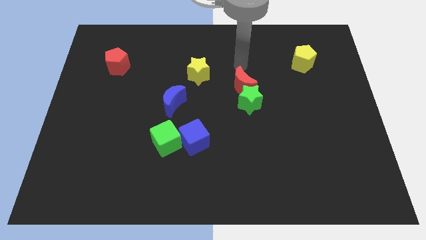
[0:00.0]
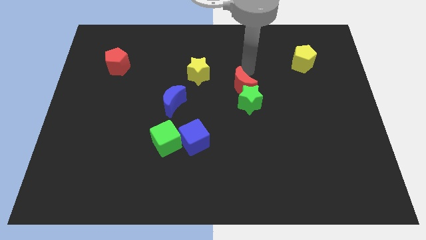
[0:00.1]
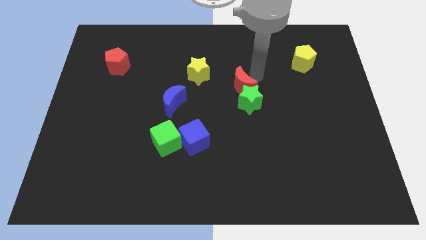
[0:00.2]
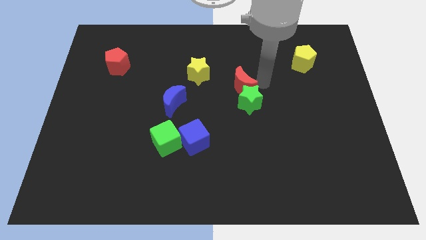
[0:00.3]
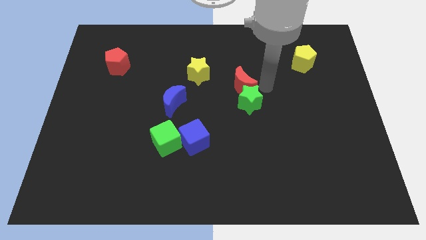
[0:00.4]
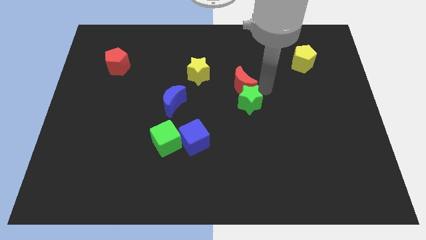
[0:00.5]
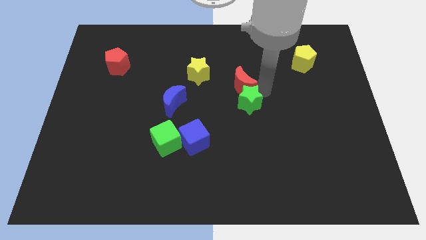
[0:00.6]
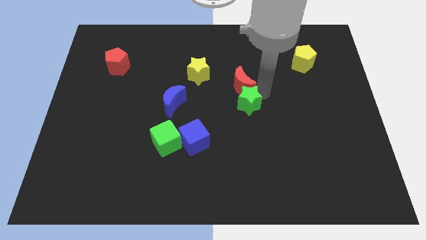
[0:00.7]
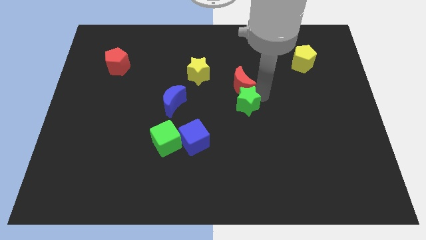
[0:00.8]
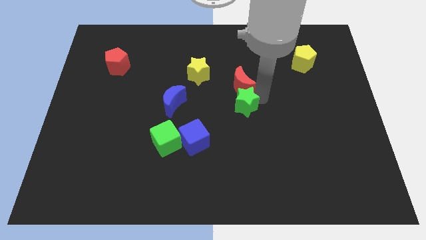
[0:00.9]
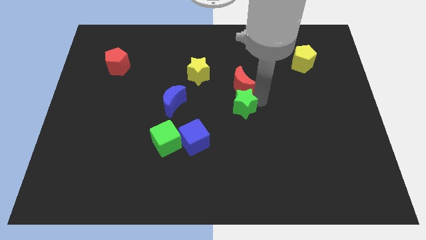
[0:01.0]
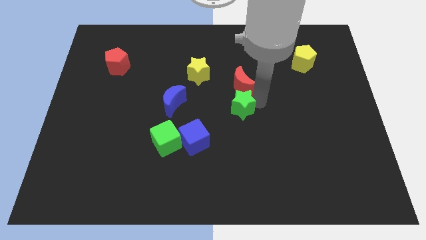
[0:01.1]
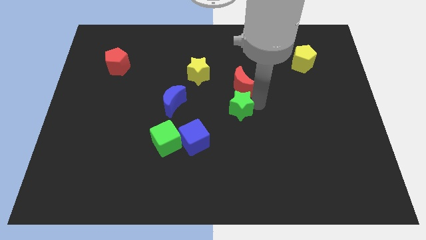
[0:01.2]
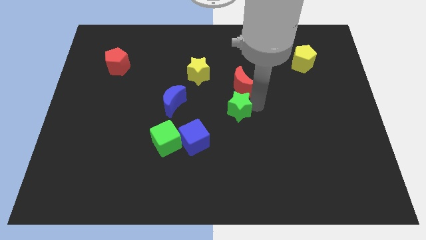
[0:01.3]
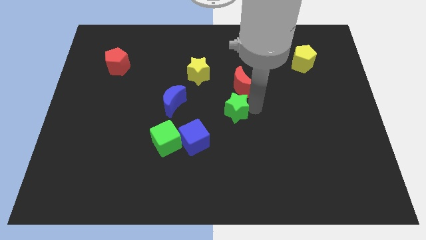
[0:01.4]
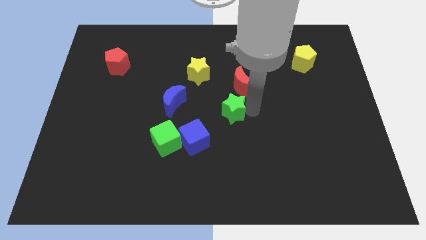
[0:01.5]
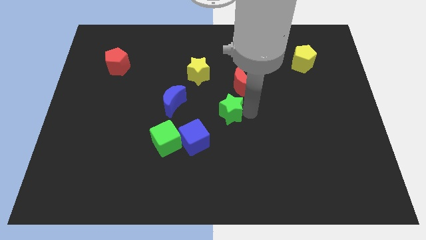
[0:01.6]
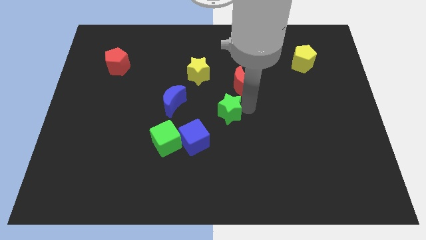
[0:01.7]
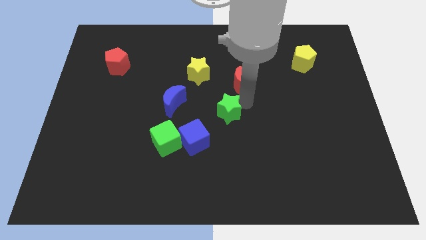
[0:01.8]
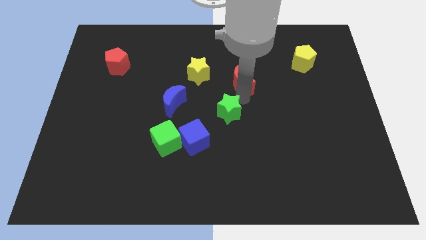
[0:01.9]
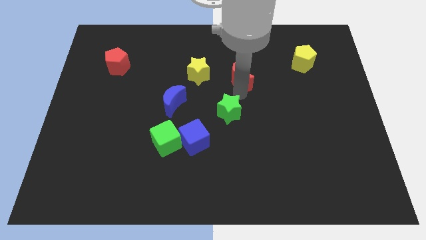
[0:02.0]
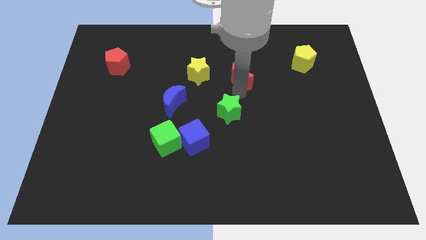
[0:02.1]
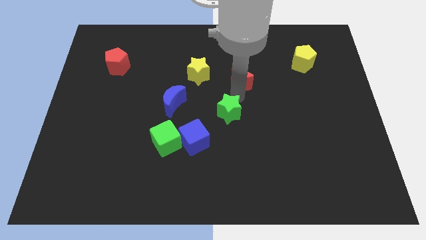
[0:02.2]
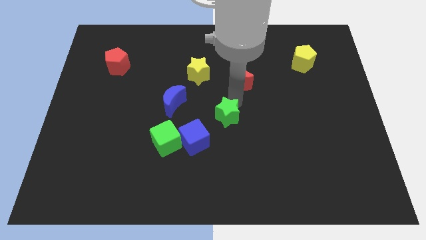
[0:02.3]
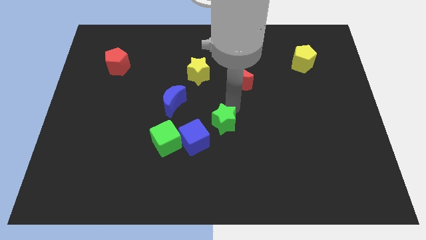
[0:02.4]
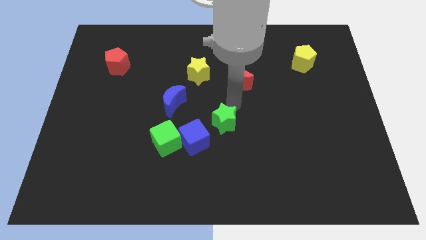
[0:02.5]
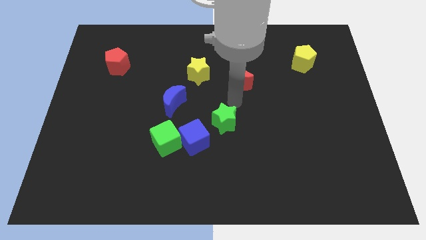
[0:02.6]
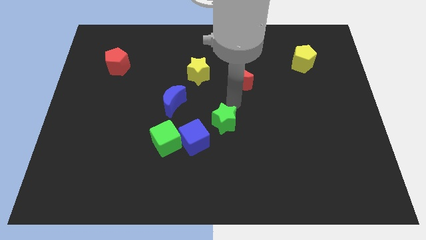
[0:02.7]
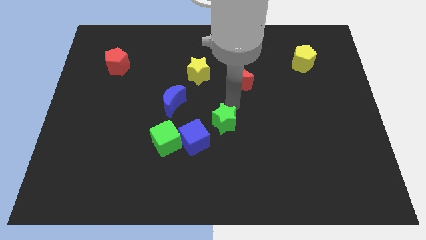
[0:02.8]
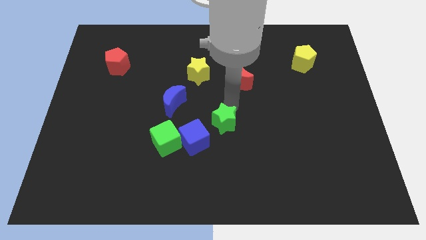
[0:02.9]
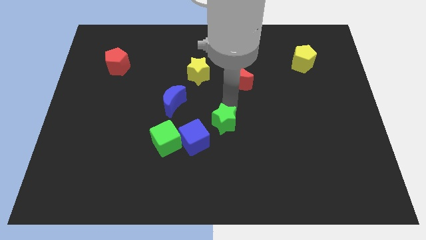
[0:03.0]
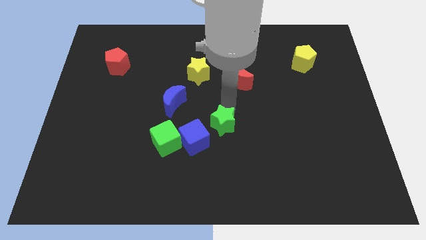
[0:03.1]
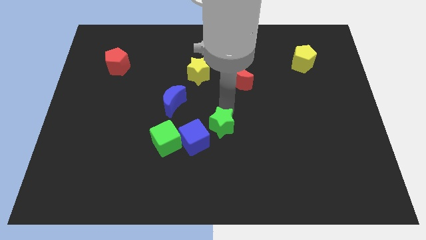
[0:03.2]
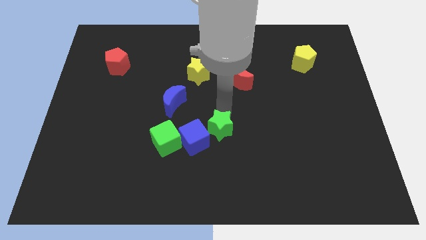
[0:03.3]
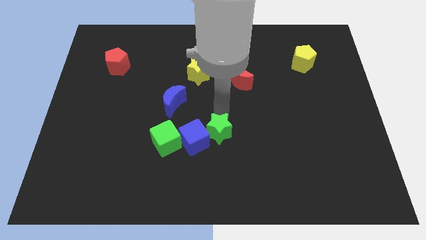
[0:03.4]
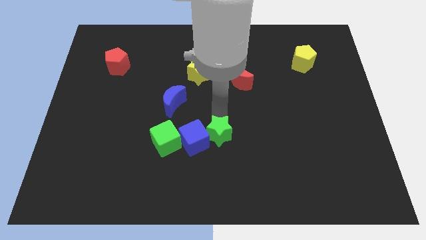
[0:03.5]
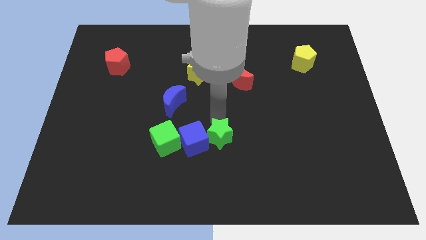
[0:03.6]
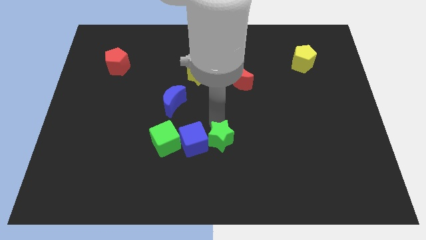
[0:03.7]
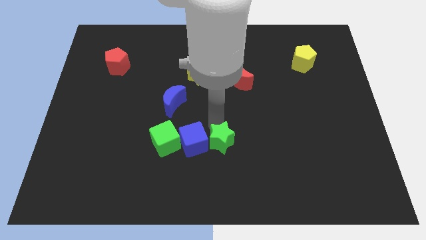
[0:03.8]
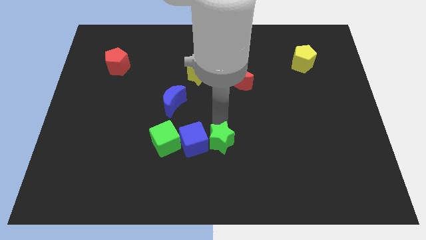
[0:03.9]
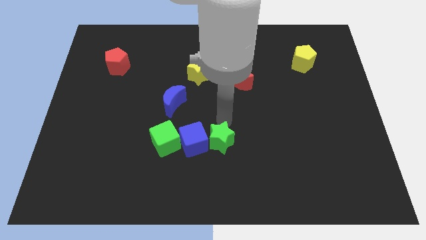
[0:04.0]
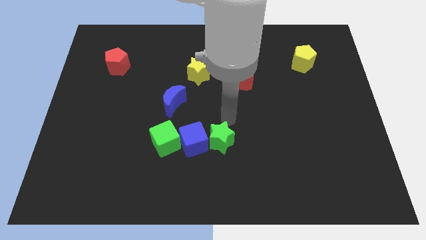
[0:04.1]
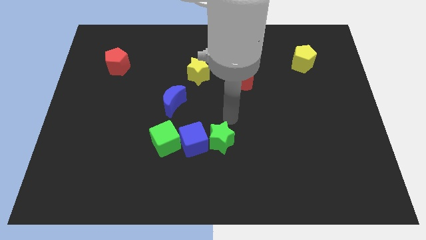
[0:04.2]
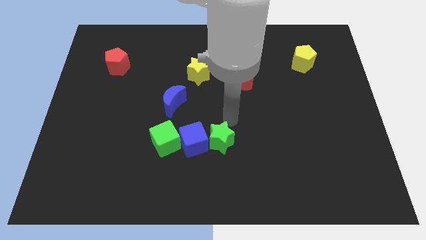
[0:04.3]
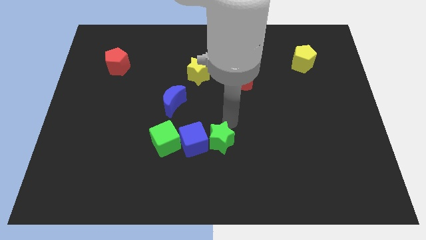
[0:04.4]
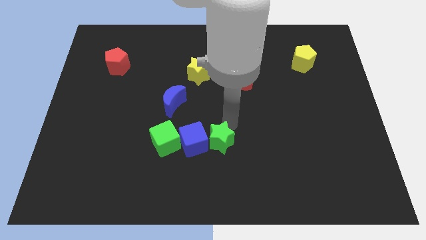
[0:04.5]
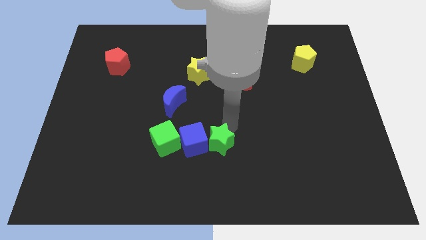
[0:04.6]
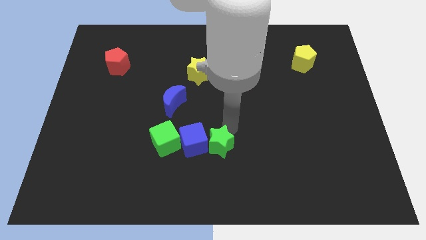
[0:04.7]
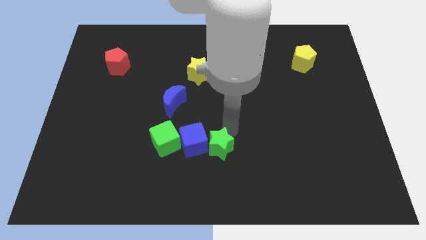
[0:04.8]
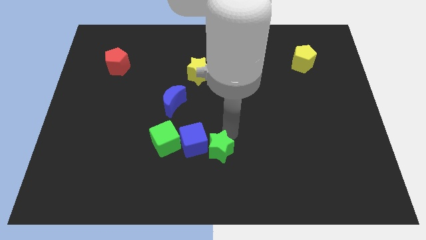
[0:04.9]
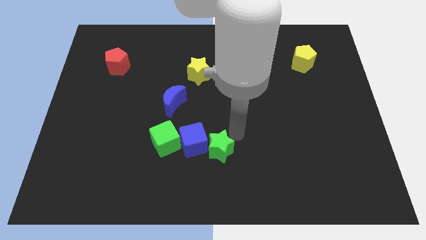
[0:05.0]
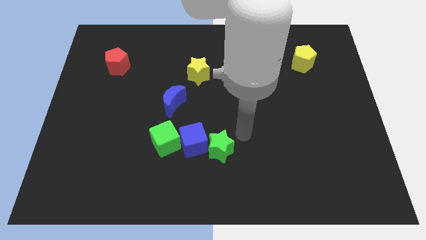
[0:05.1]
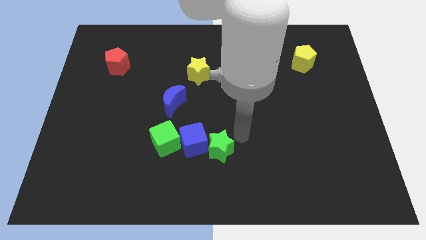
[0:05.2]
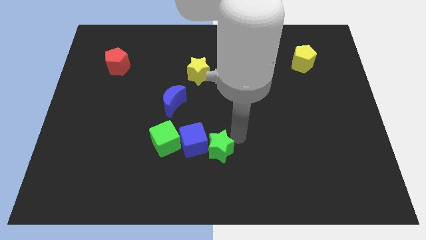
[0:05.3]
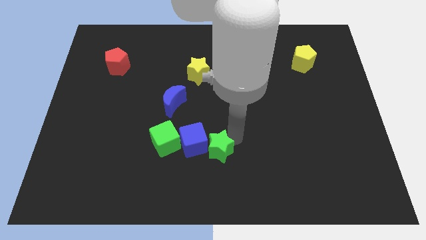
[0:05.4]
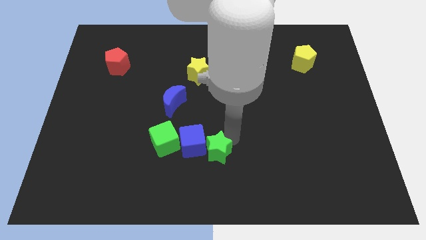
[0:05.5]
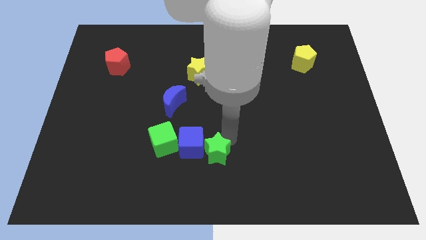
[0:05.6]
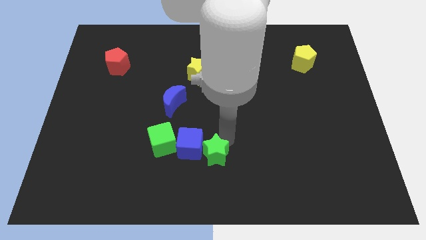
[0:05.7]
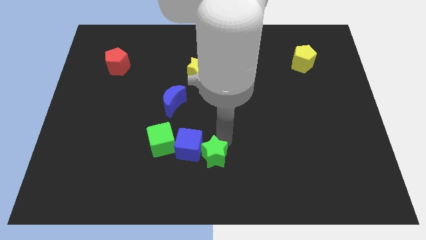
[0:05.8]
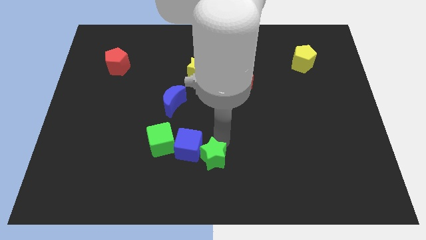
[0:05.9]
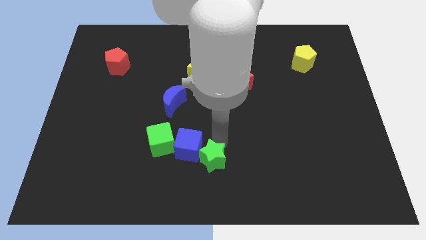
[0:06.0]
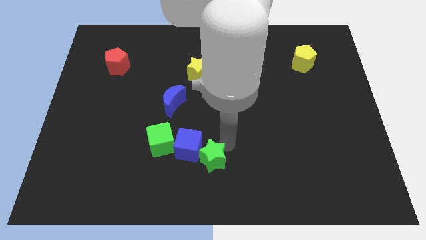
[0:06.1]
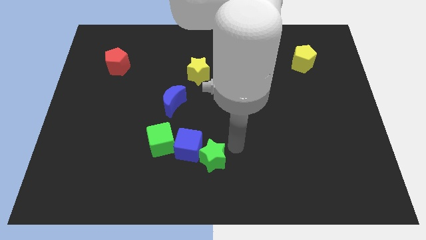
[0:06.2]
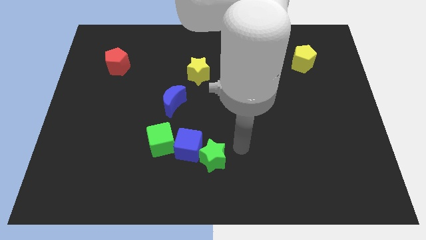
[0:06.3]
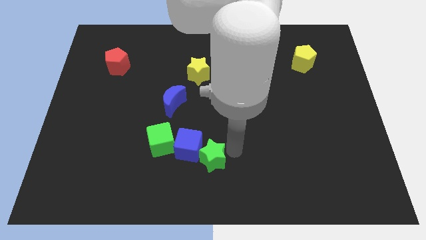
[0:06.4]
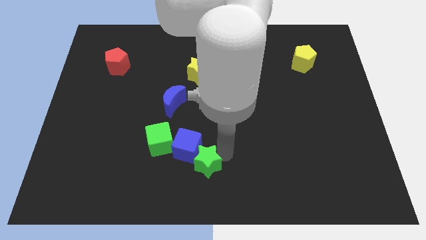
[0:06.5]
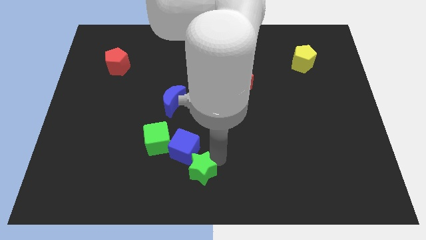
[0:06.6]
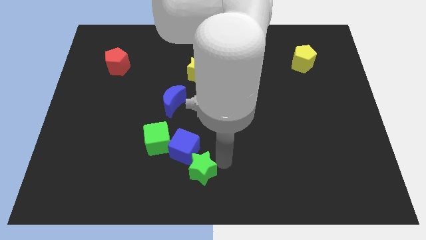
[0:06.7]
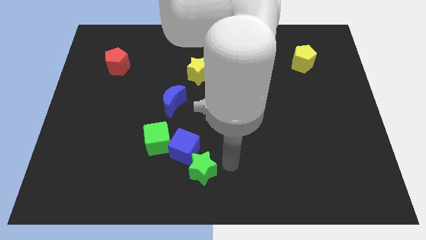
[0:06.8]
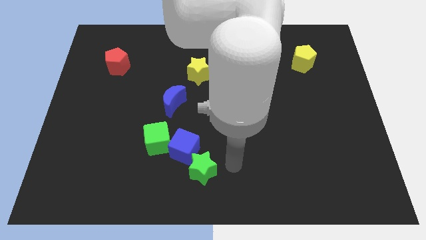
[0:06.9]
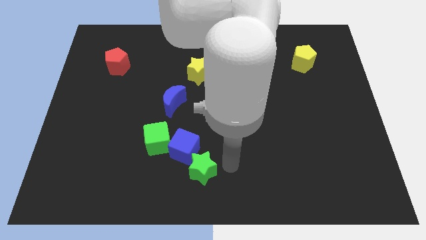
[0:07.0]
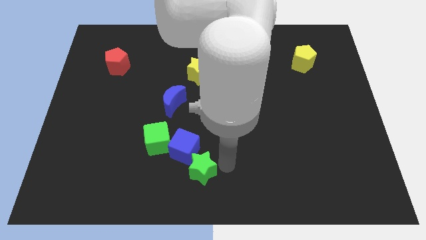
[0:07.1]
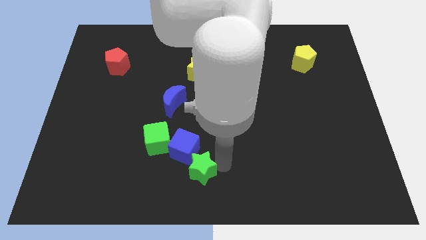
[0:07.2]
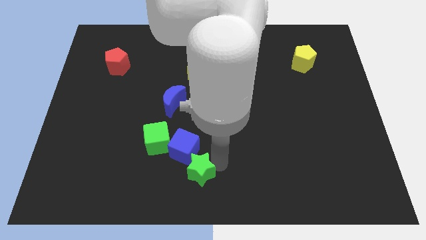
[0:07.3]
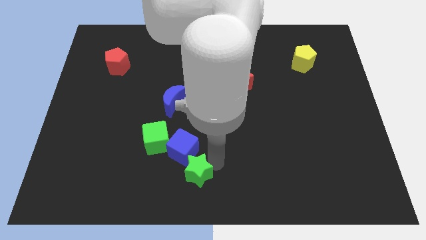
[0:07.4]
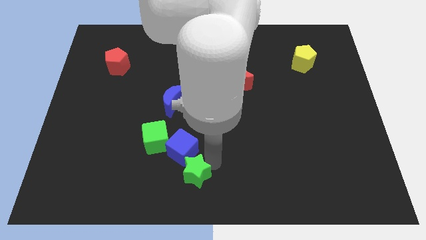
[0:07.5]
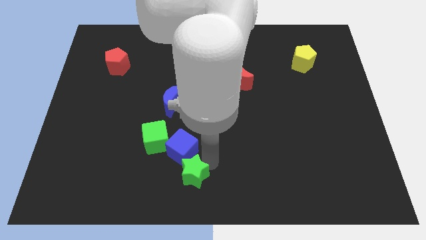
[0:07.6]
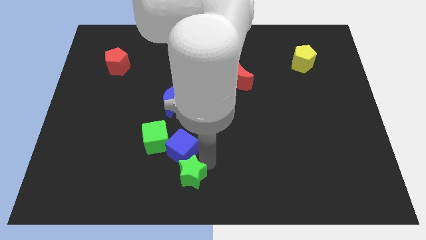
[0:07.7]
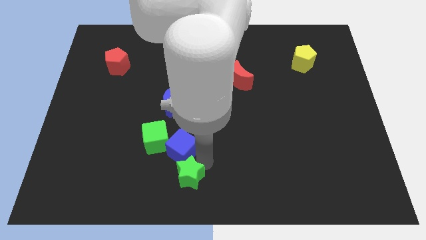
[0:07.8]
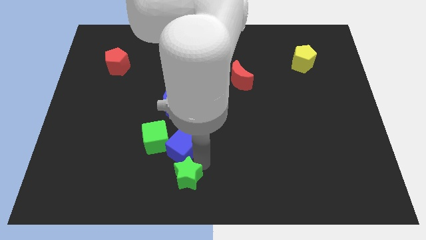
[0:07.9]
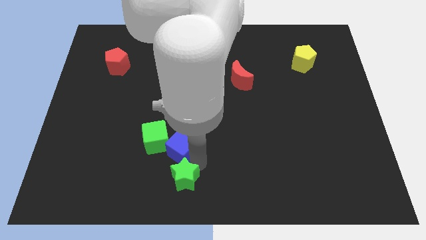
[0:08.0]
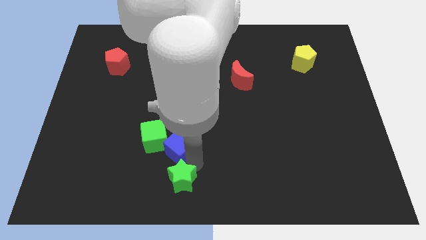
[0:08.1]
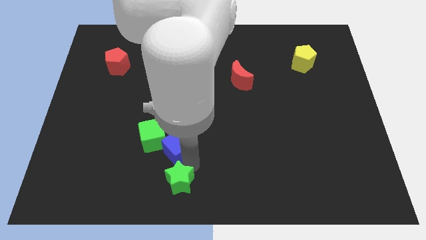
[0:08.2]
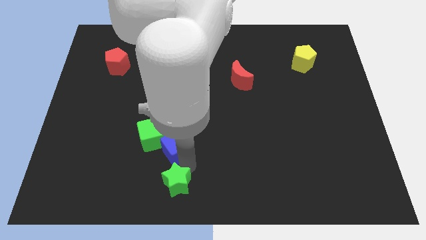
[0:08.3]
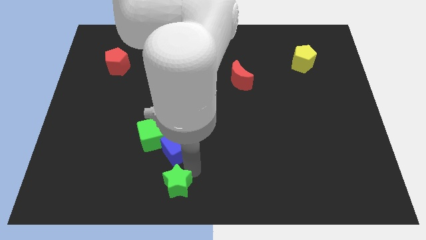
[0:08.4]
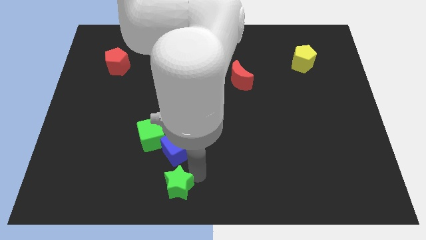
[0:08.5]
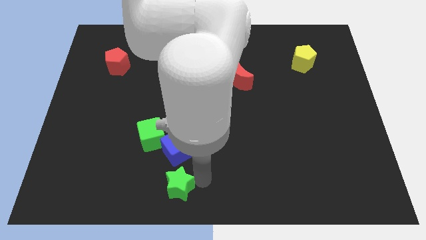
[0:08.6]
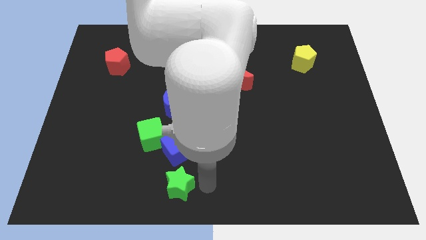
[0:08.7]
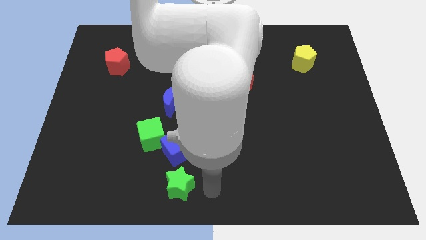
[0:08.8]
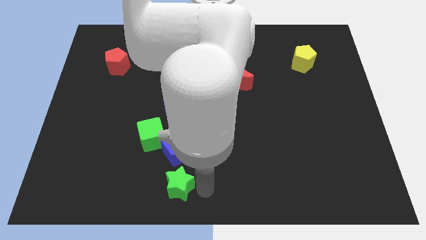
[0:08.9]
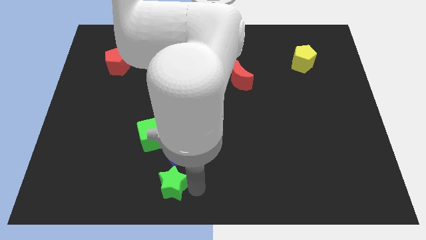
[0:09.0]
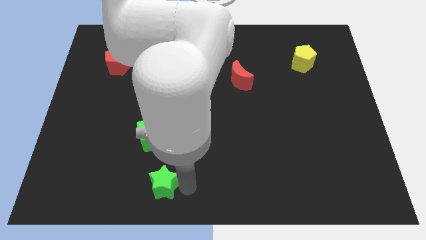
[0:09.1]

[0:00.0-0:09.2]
put the green star to the bottom side of the green cube
